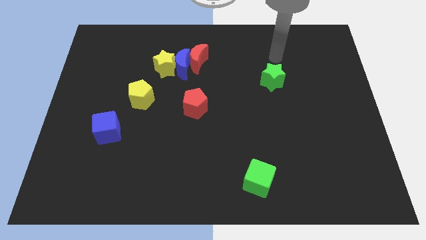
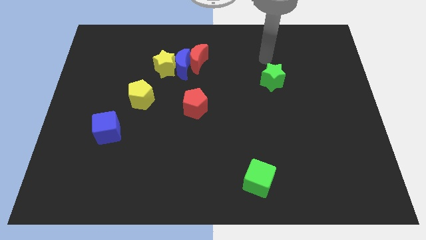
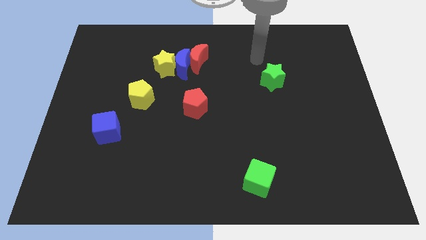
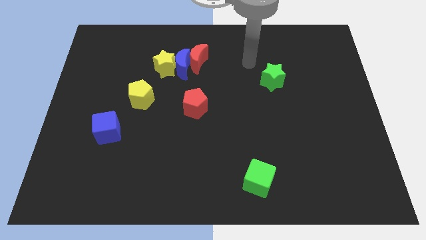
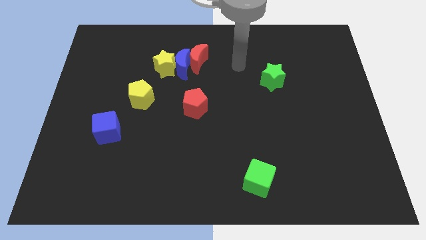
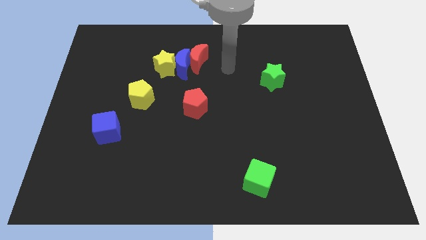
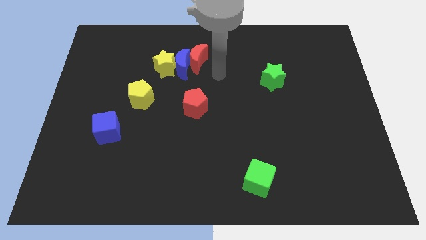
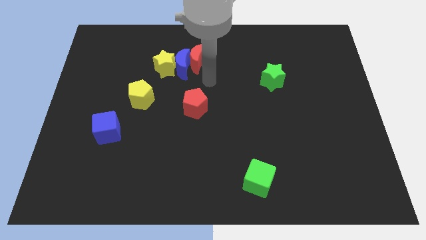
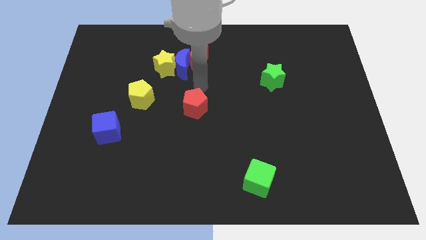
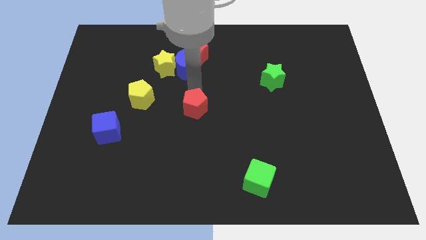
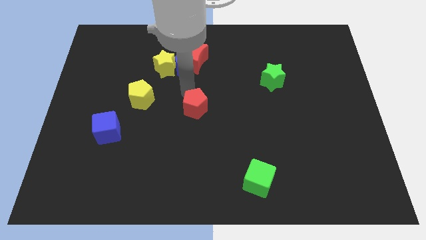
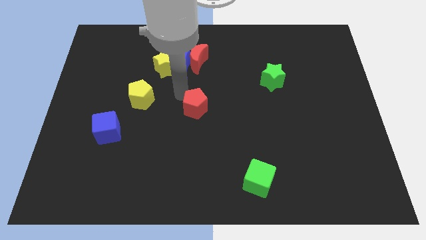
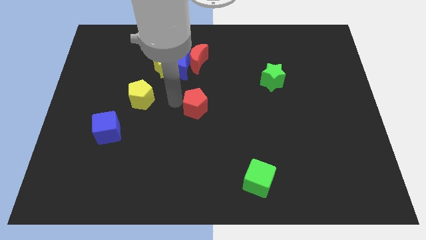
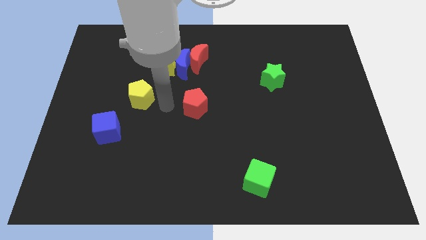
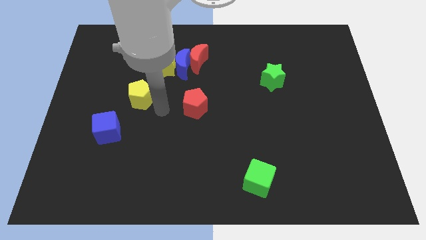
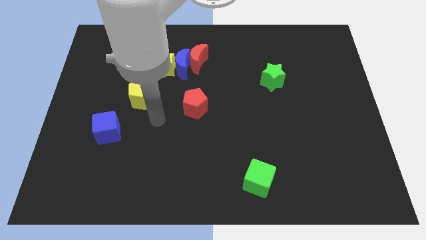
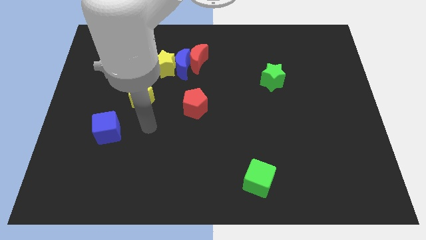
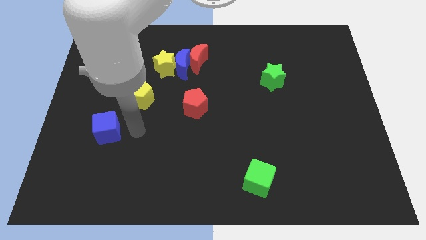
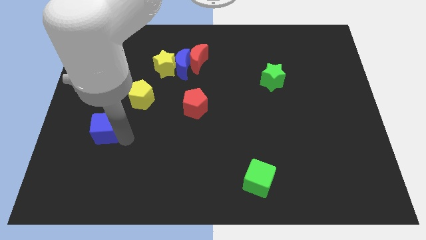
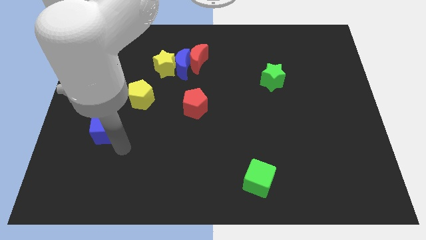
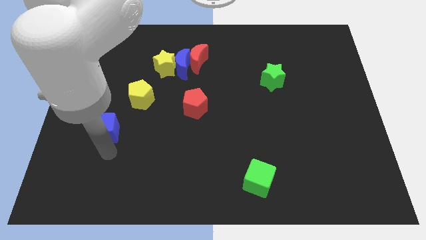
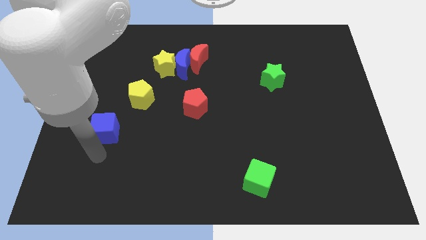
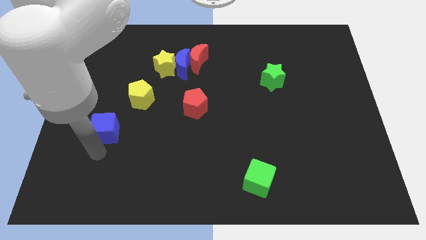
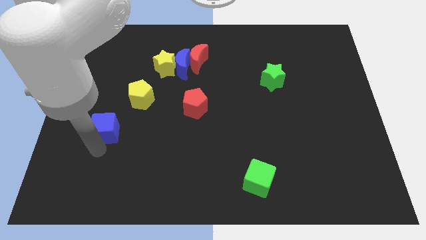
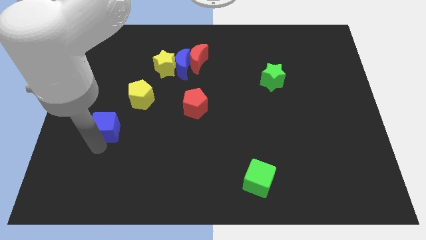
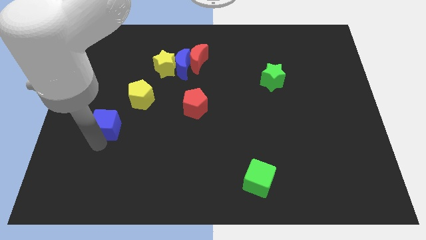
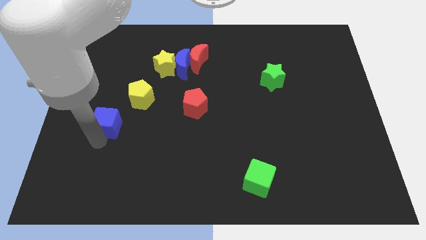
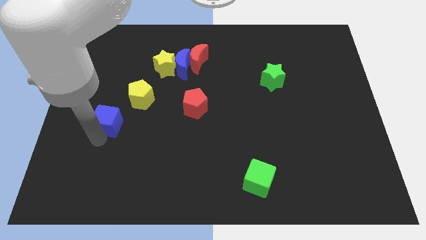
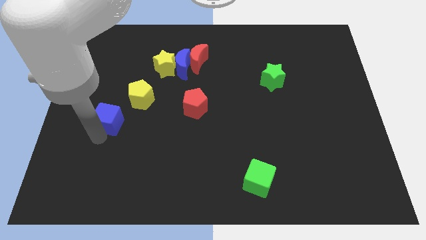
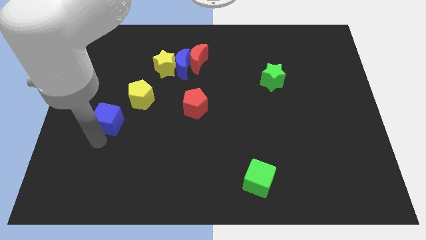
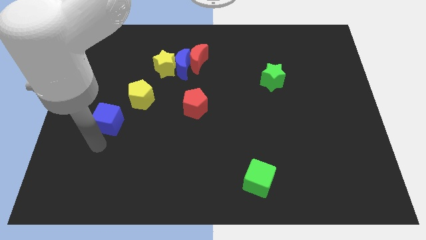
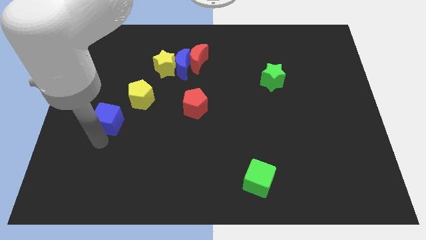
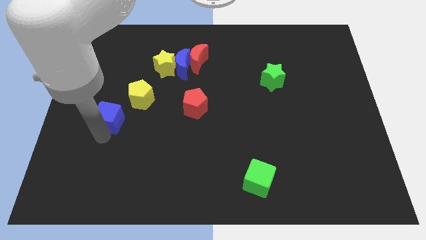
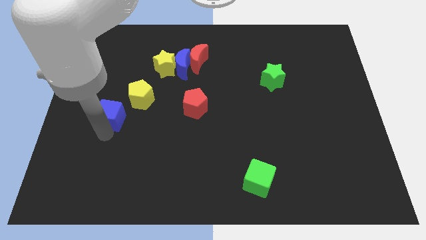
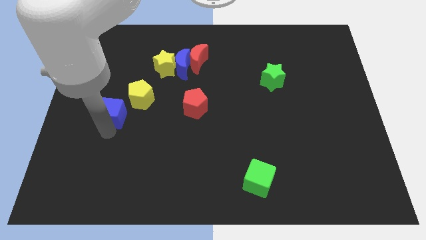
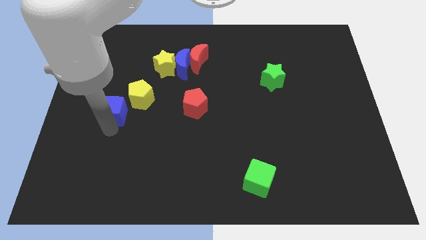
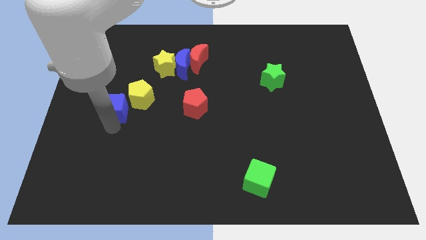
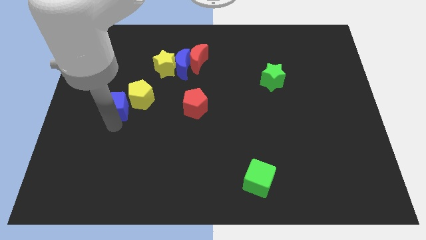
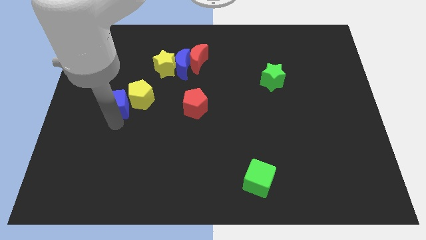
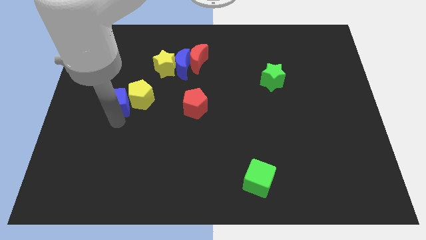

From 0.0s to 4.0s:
push the blue cube upwards a little

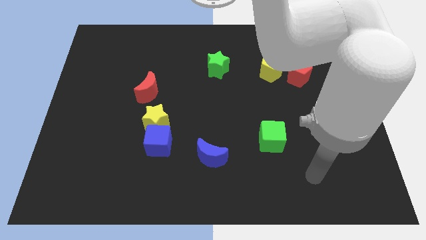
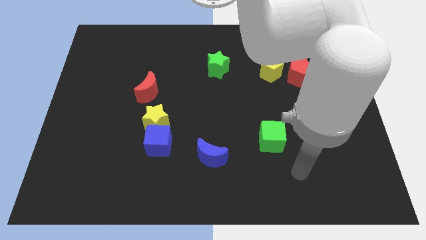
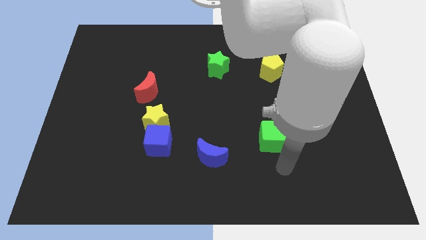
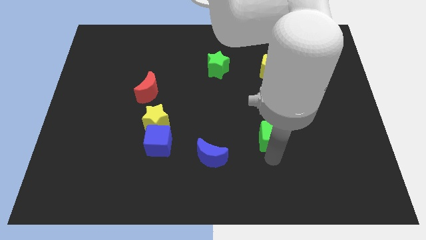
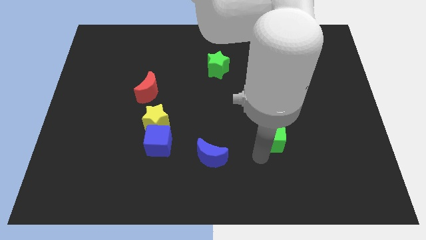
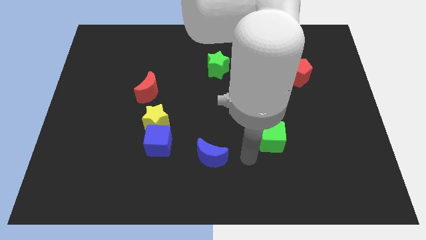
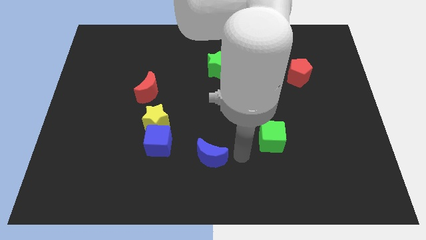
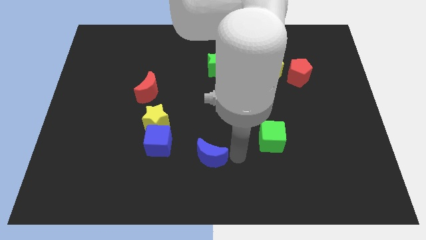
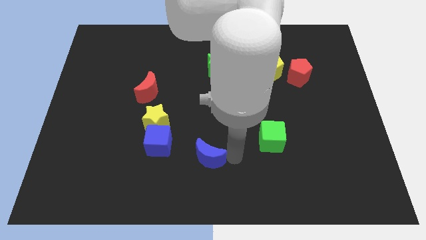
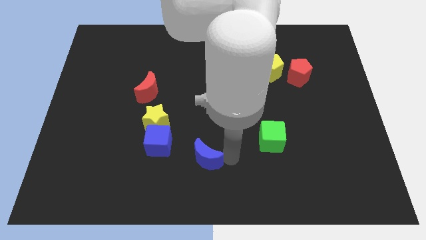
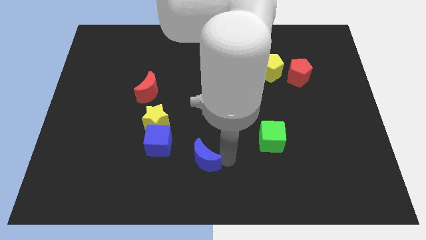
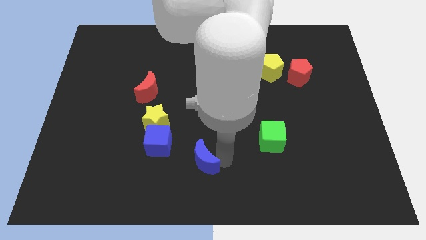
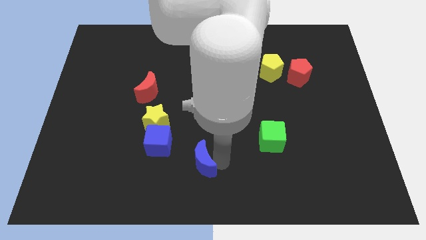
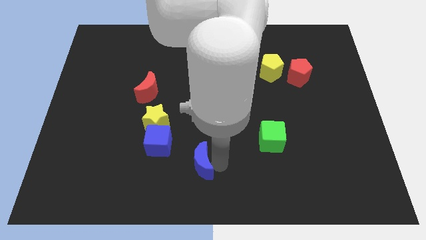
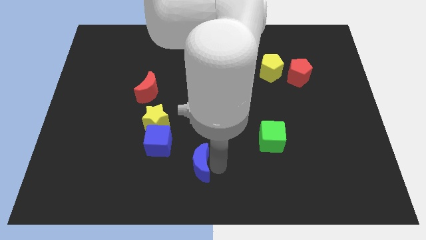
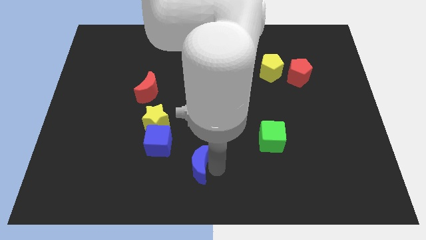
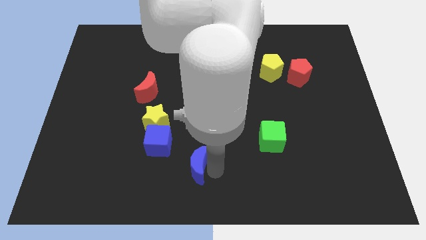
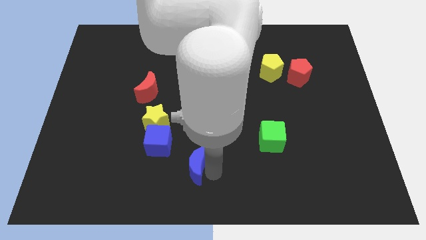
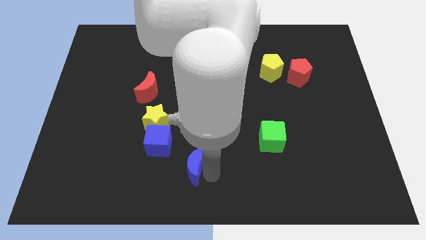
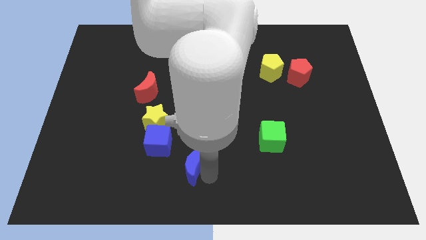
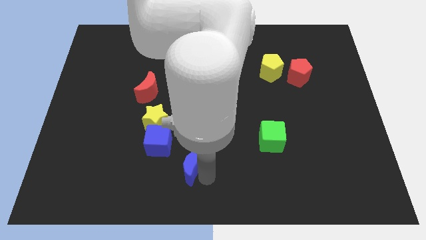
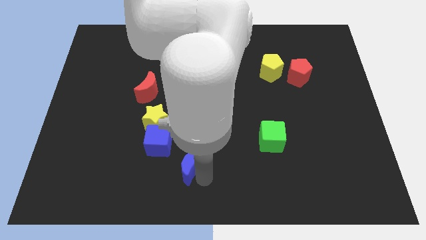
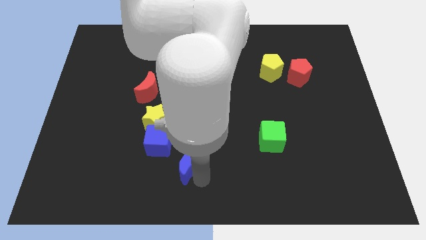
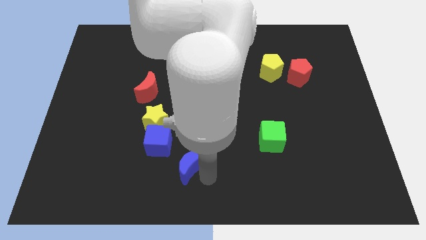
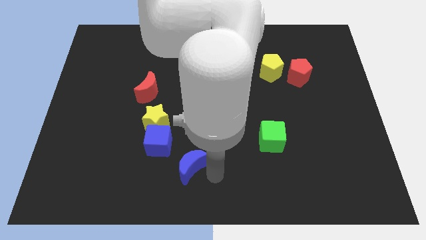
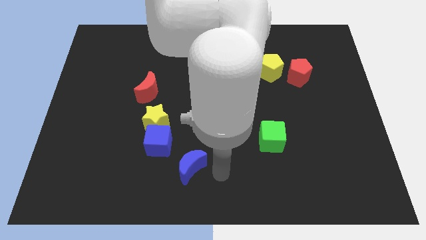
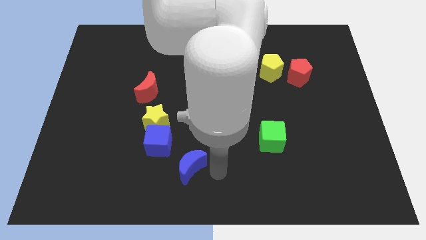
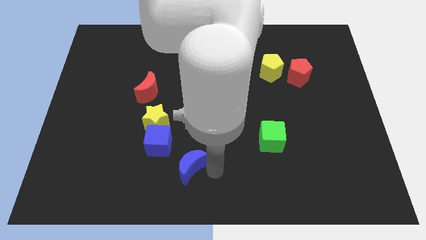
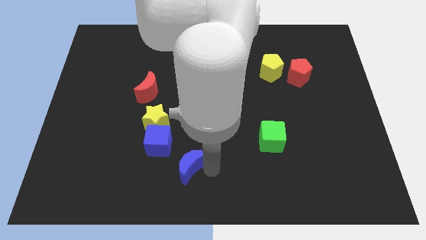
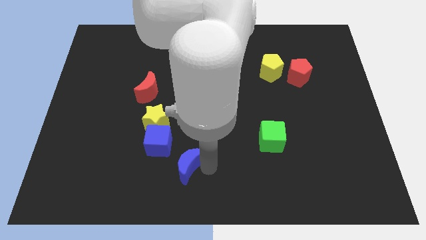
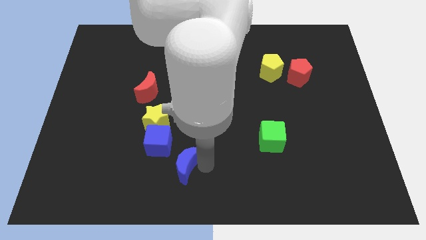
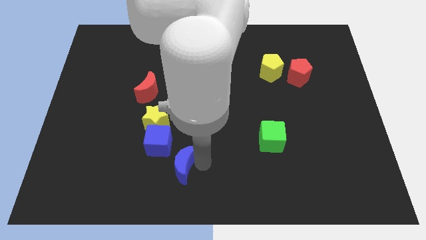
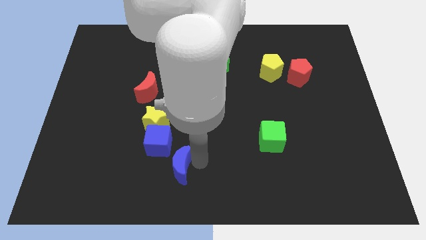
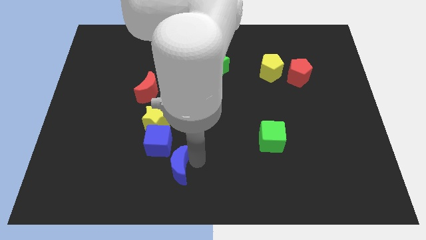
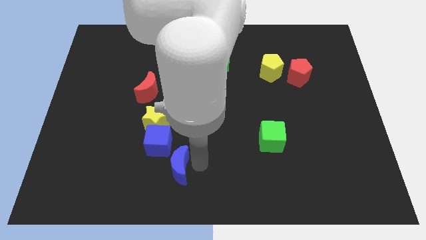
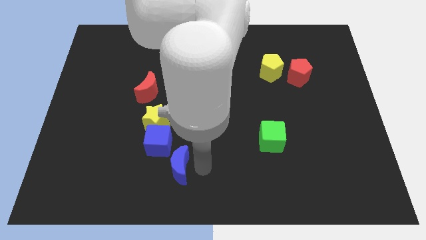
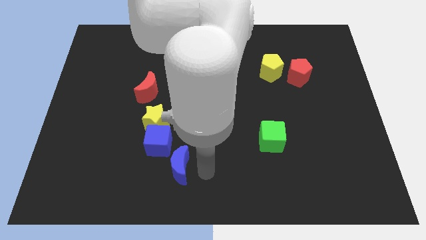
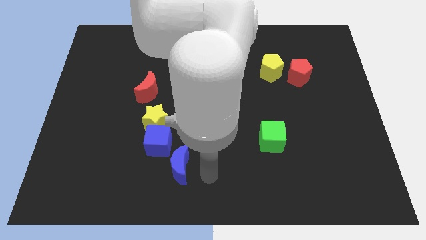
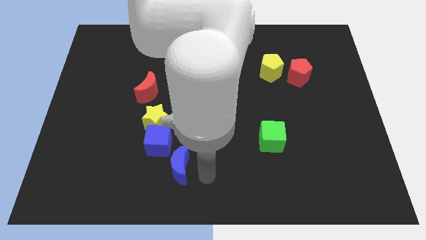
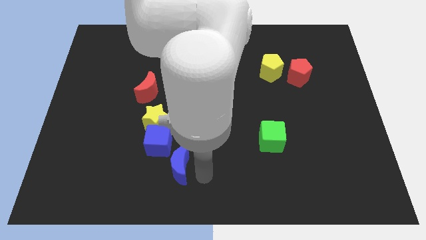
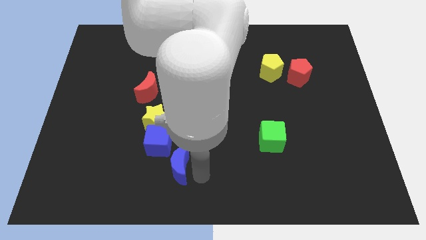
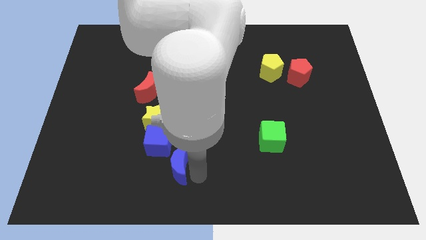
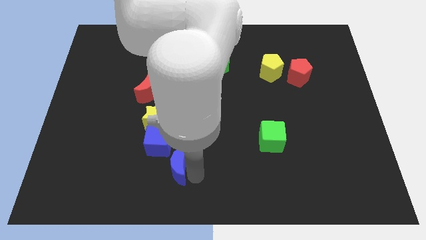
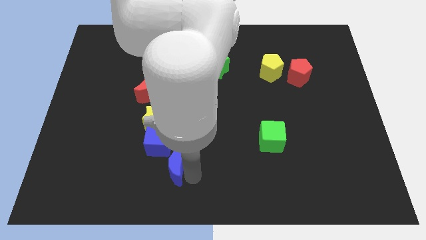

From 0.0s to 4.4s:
slightly move the blue moon to the left
